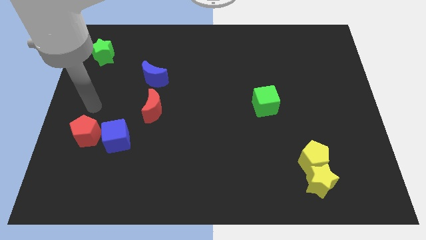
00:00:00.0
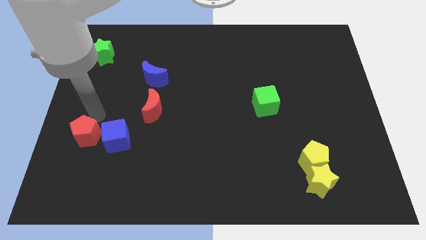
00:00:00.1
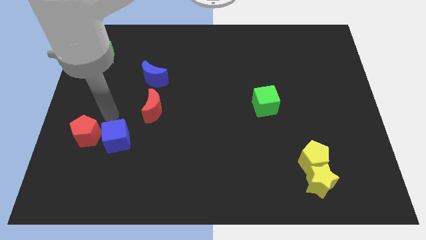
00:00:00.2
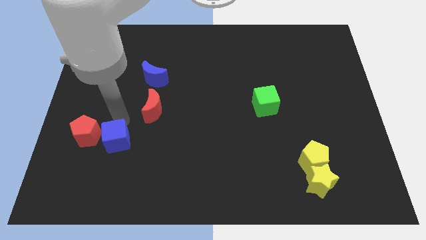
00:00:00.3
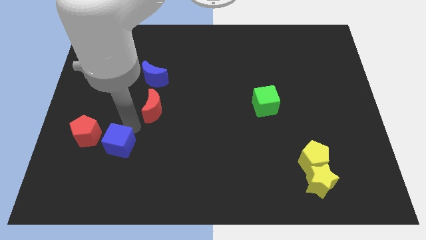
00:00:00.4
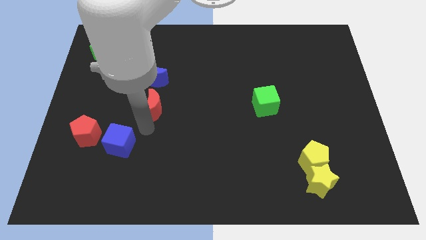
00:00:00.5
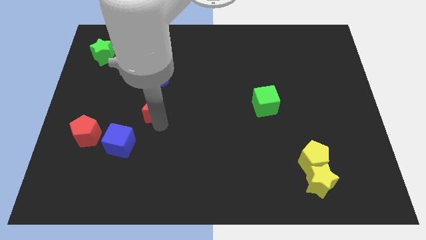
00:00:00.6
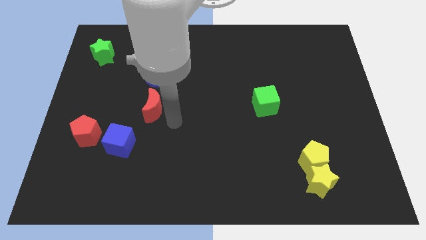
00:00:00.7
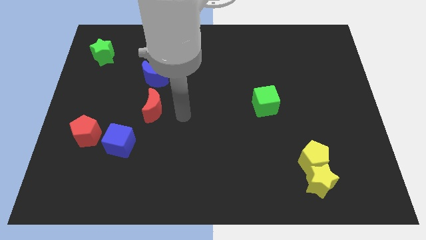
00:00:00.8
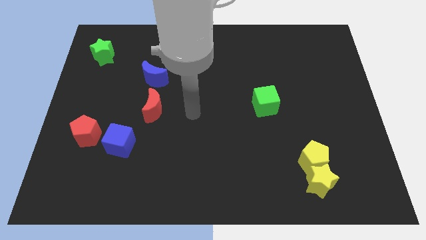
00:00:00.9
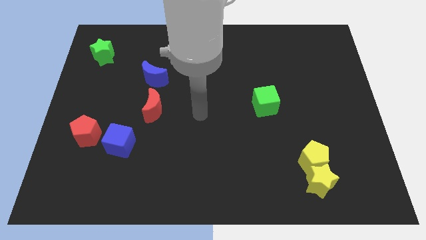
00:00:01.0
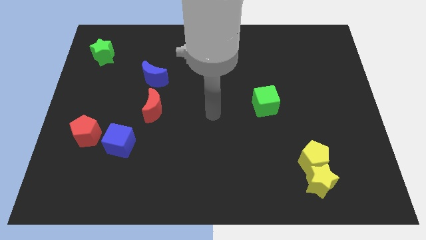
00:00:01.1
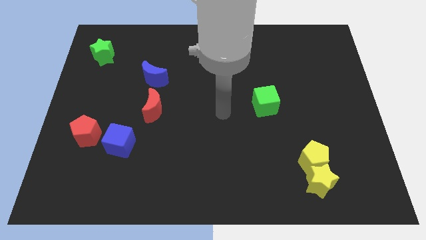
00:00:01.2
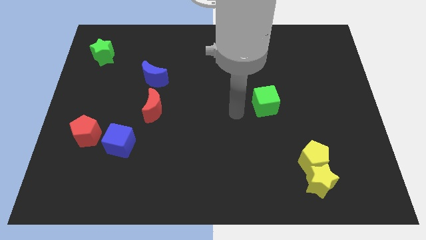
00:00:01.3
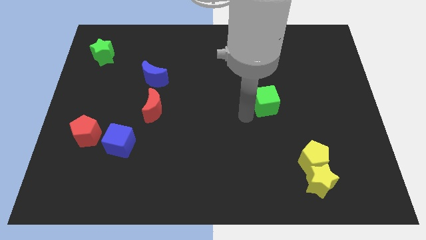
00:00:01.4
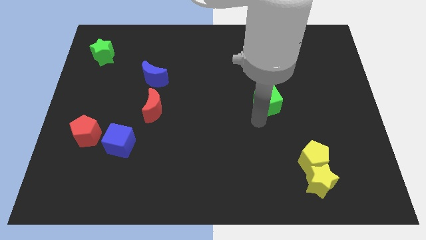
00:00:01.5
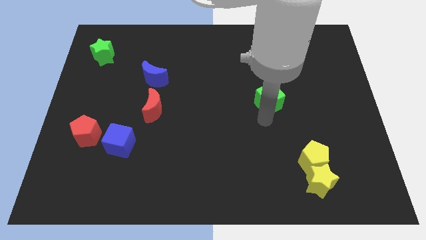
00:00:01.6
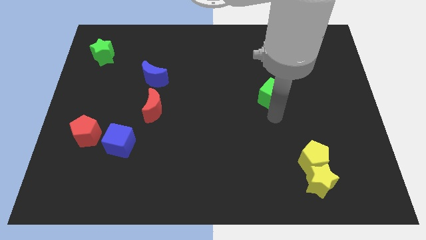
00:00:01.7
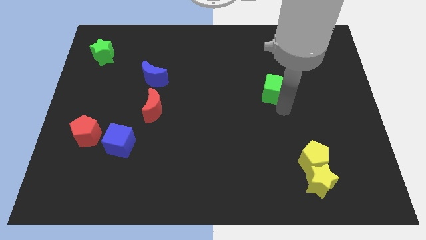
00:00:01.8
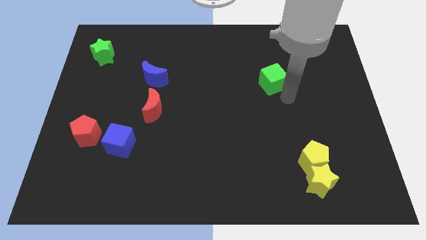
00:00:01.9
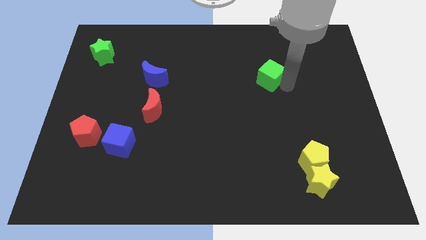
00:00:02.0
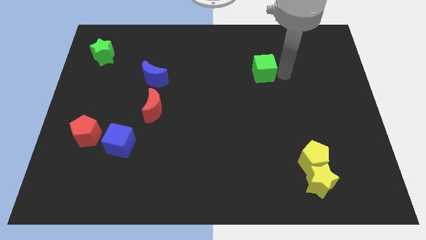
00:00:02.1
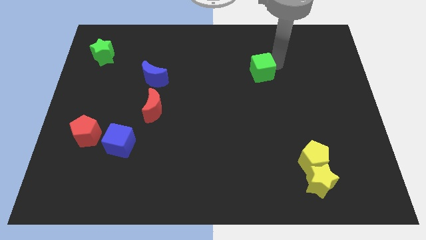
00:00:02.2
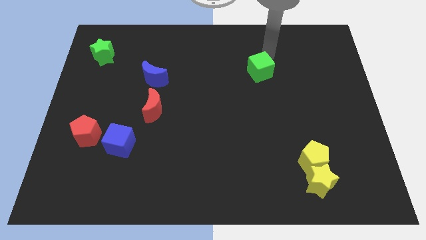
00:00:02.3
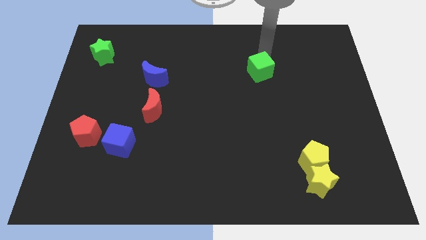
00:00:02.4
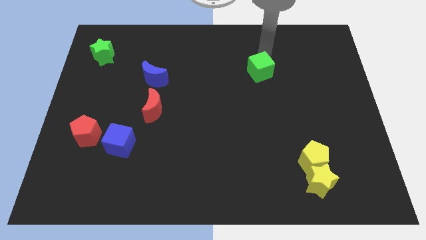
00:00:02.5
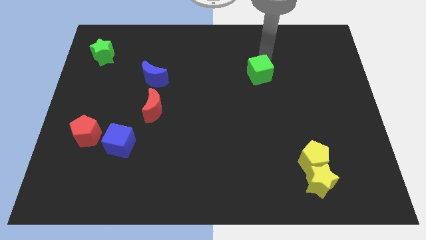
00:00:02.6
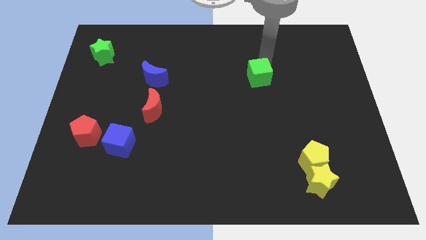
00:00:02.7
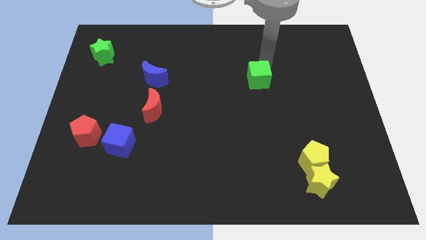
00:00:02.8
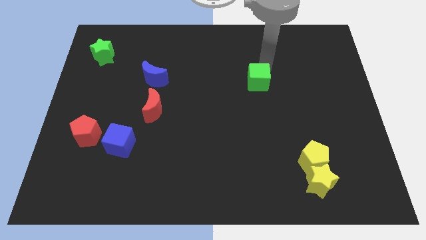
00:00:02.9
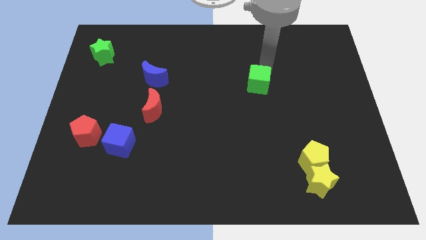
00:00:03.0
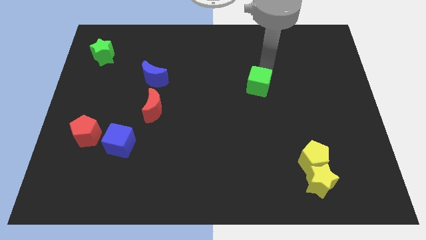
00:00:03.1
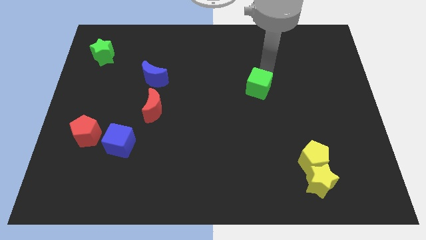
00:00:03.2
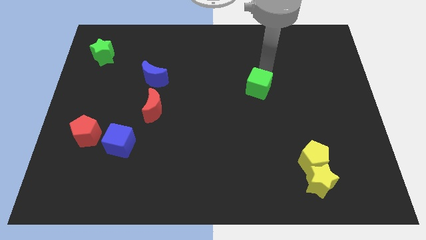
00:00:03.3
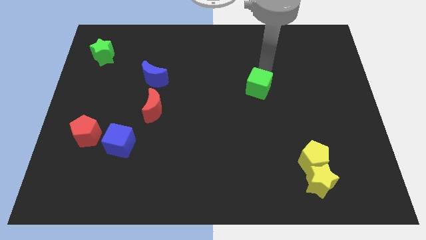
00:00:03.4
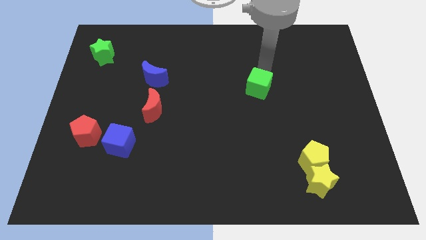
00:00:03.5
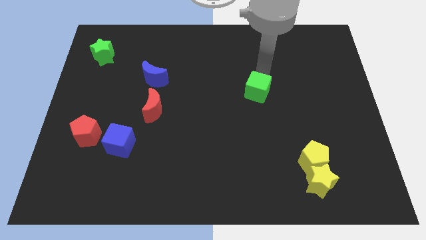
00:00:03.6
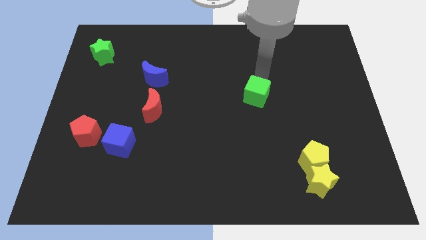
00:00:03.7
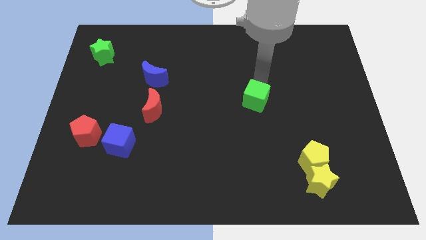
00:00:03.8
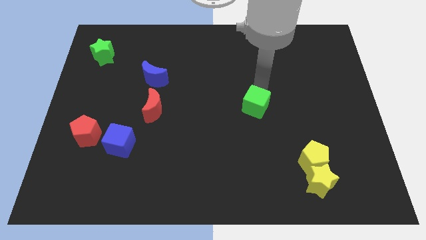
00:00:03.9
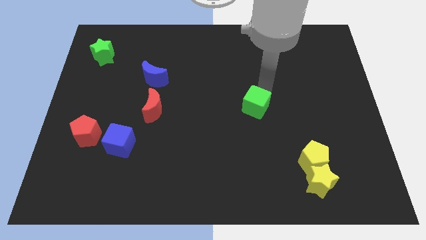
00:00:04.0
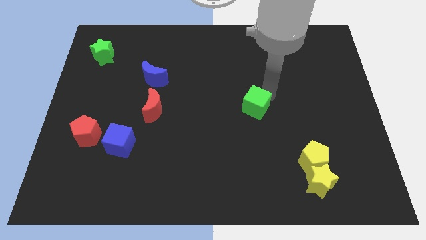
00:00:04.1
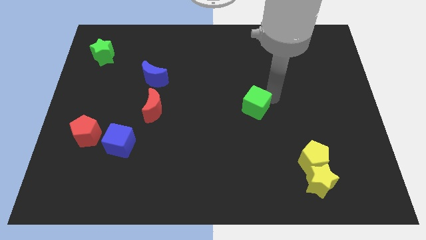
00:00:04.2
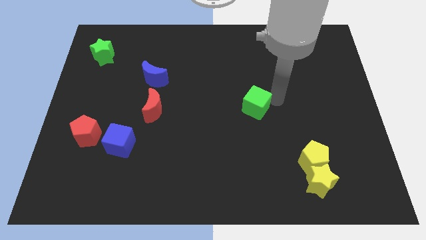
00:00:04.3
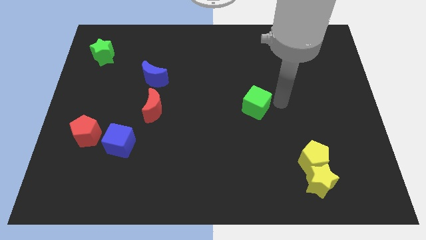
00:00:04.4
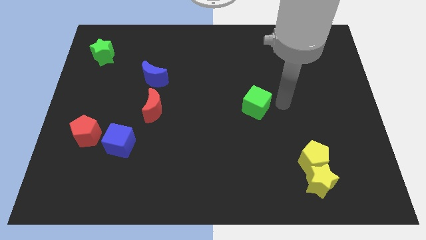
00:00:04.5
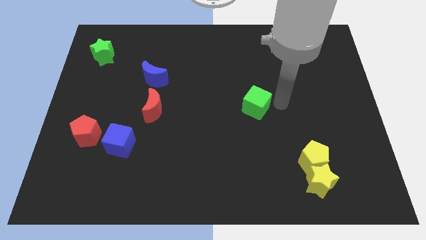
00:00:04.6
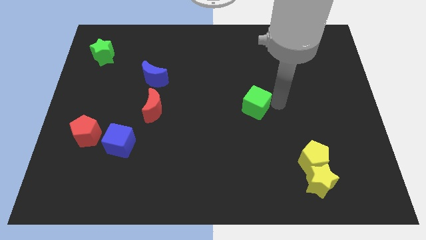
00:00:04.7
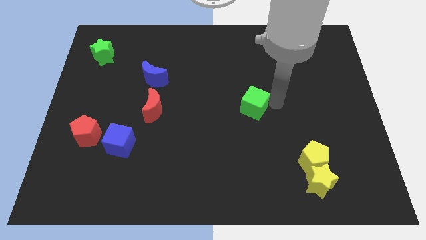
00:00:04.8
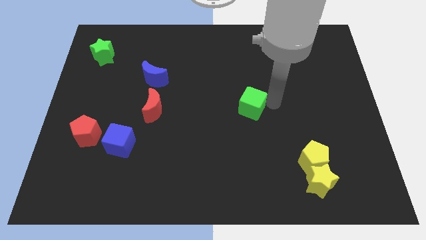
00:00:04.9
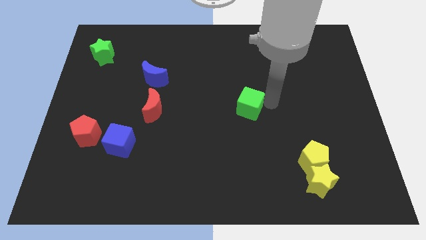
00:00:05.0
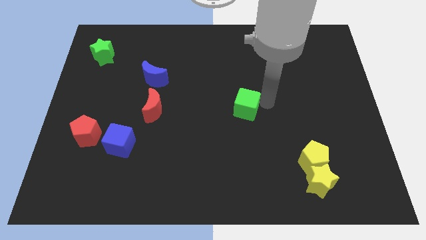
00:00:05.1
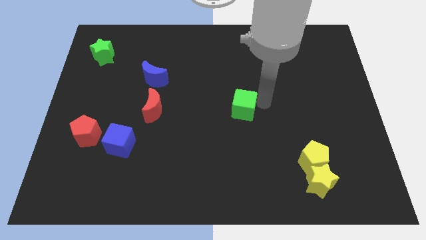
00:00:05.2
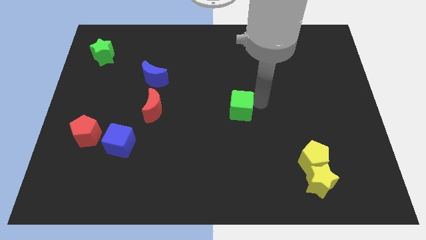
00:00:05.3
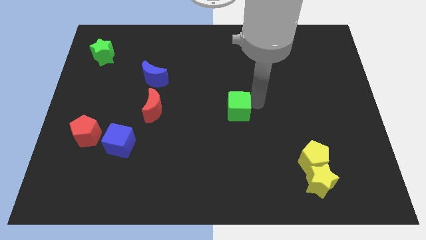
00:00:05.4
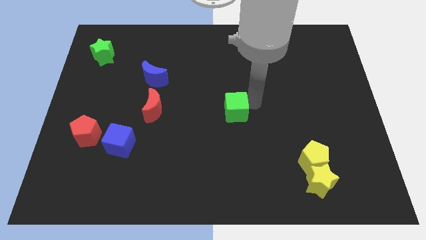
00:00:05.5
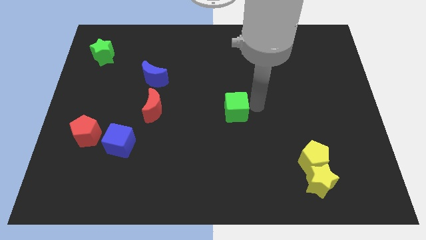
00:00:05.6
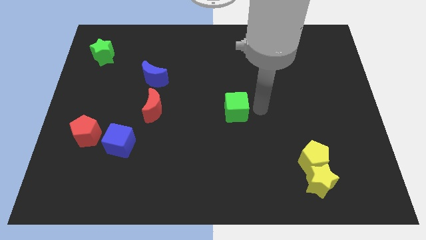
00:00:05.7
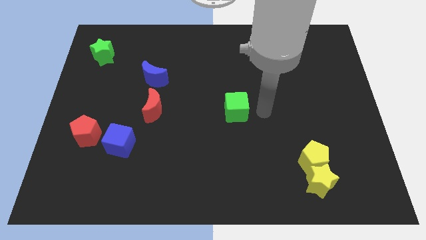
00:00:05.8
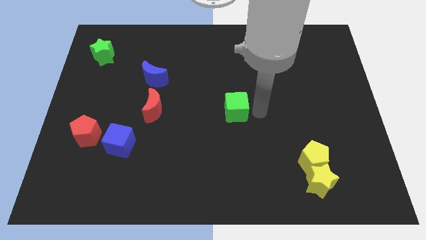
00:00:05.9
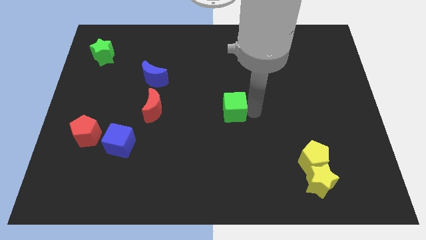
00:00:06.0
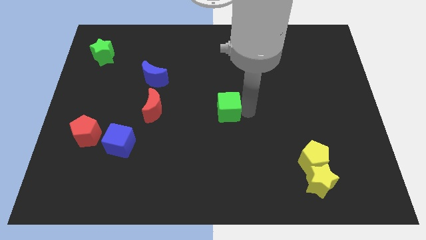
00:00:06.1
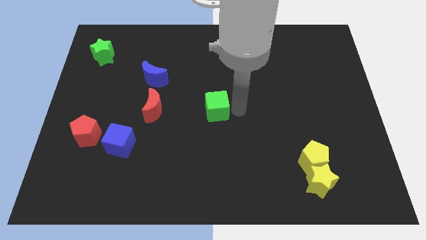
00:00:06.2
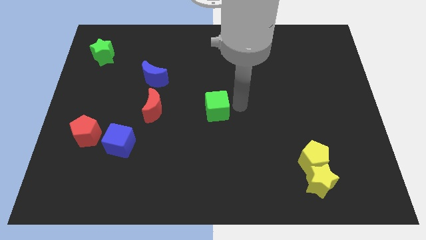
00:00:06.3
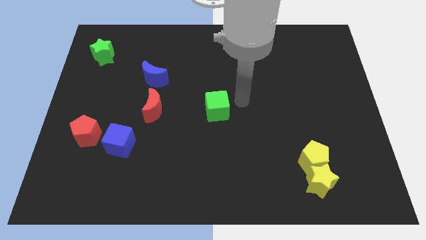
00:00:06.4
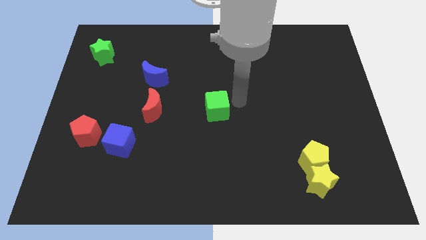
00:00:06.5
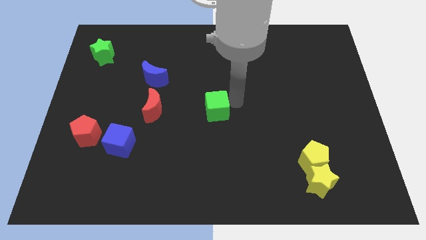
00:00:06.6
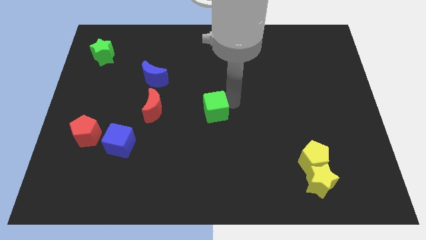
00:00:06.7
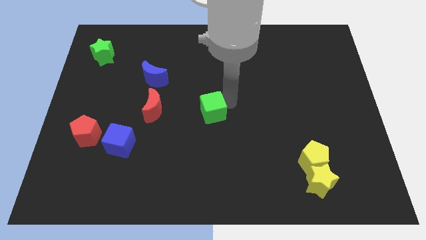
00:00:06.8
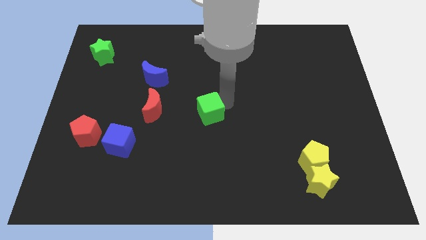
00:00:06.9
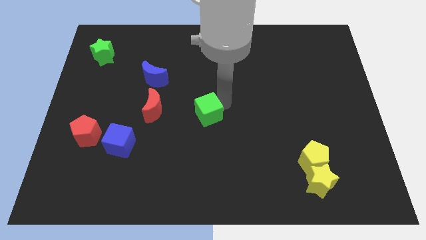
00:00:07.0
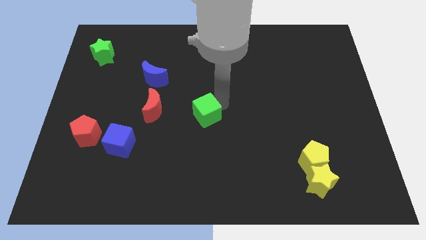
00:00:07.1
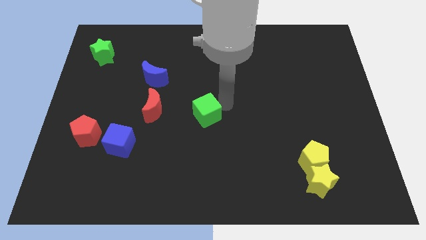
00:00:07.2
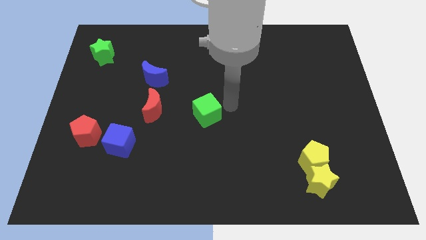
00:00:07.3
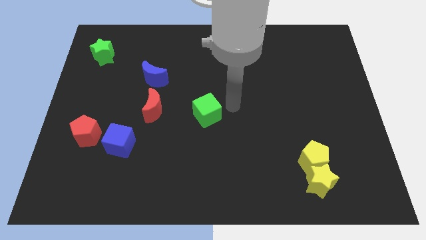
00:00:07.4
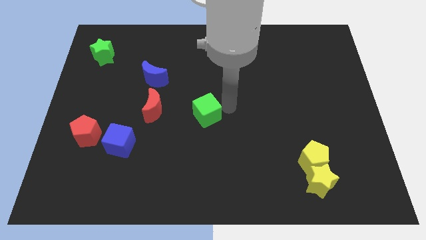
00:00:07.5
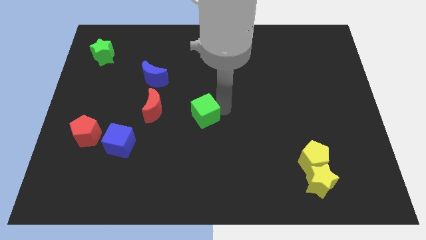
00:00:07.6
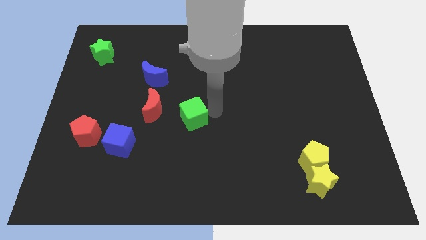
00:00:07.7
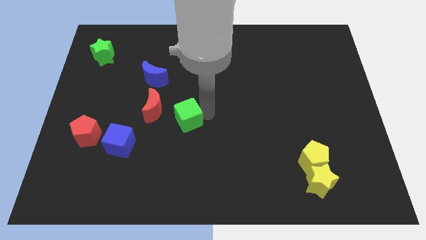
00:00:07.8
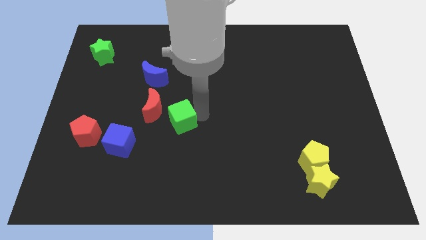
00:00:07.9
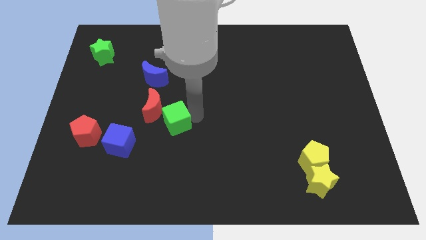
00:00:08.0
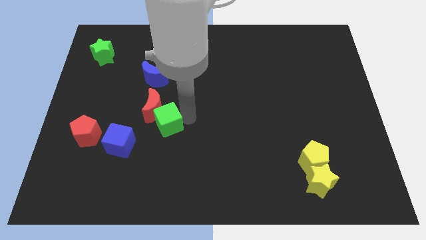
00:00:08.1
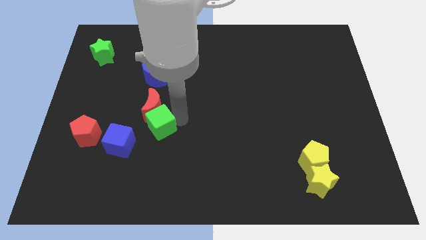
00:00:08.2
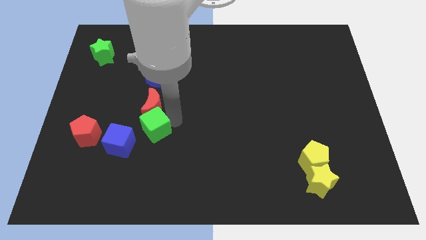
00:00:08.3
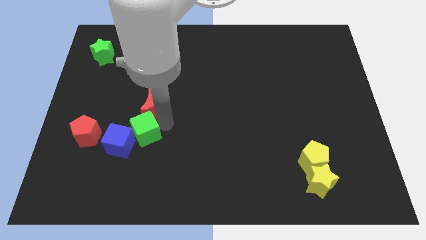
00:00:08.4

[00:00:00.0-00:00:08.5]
slide the green cube towards the blue cube
